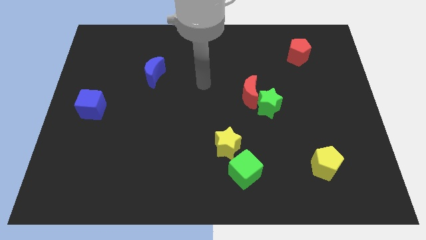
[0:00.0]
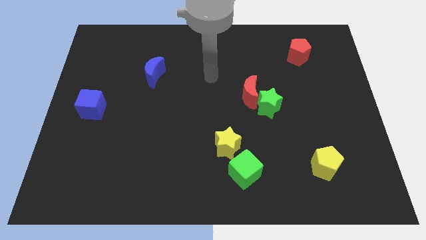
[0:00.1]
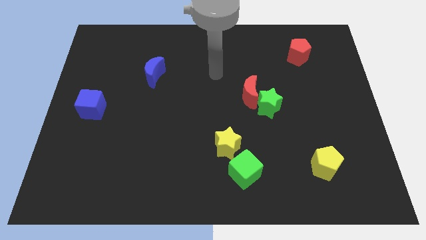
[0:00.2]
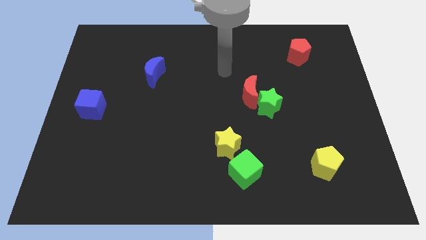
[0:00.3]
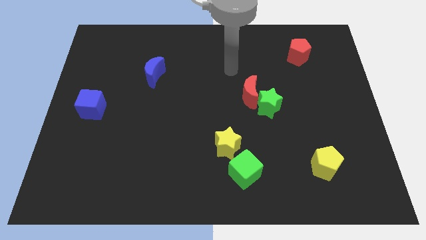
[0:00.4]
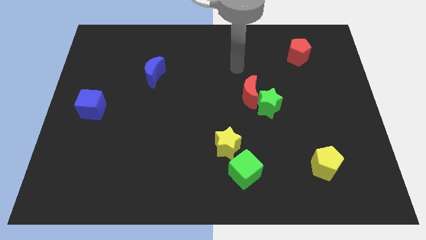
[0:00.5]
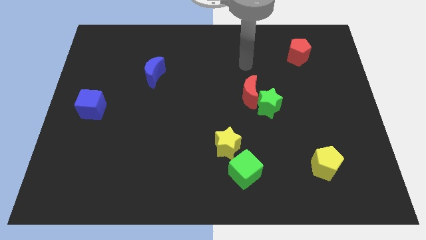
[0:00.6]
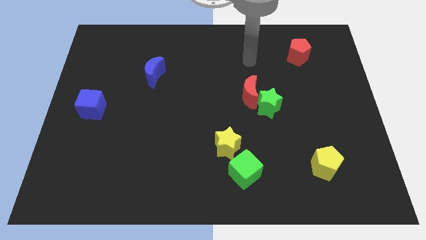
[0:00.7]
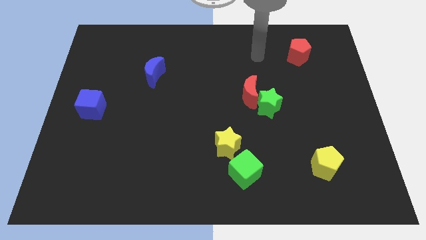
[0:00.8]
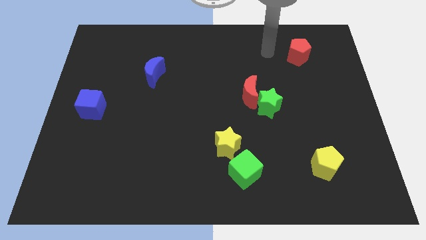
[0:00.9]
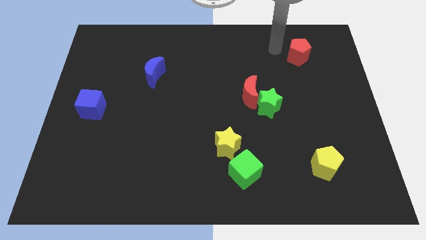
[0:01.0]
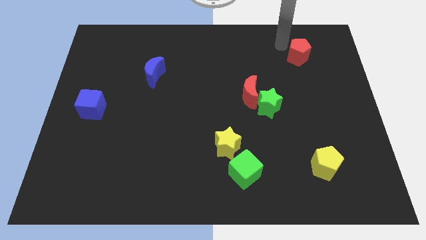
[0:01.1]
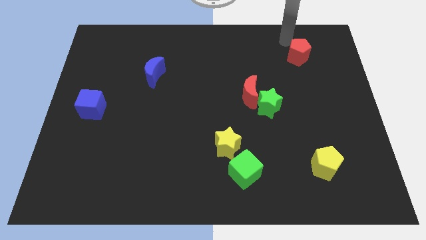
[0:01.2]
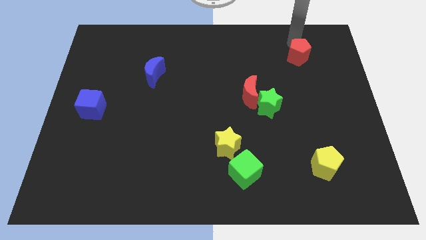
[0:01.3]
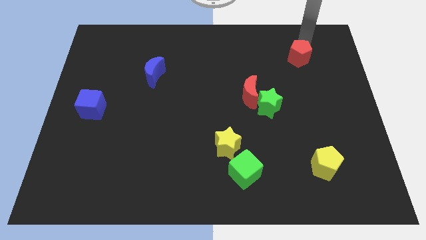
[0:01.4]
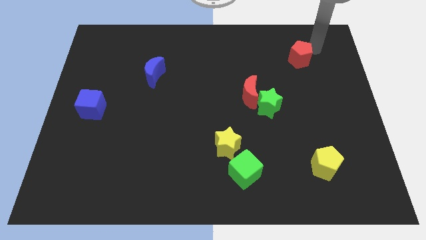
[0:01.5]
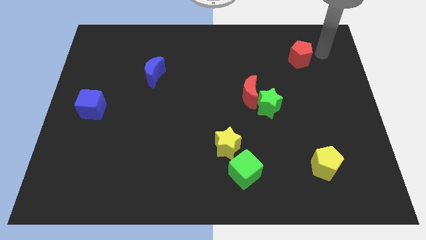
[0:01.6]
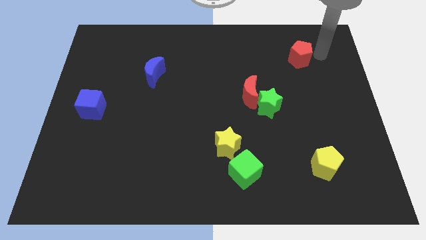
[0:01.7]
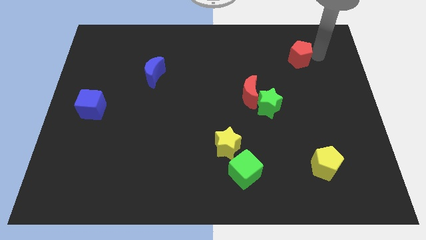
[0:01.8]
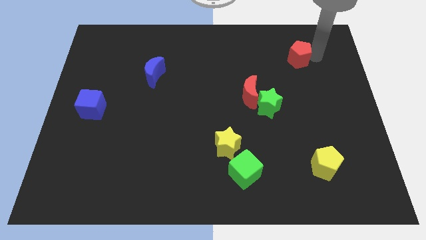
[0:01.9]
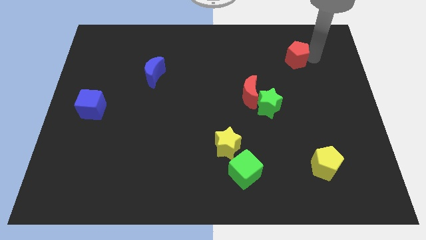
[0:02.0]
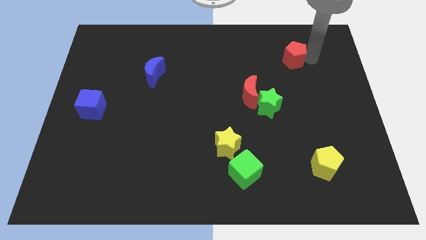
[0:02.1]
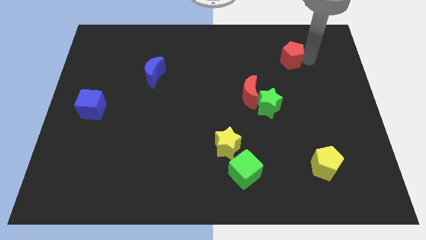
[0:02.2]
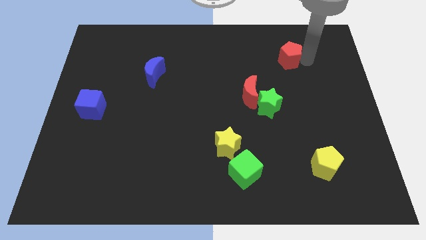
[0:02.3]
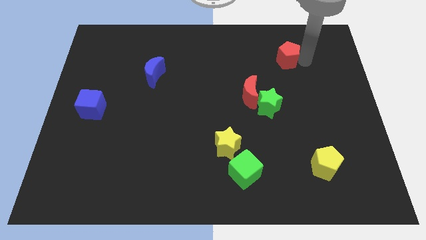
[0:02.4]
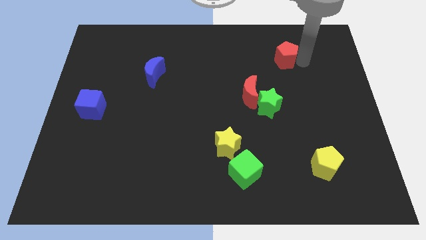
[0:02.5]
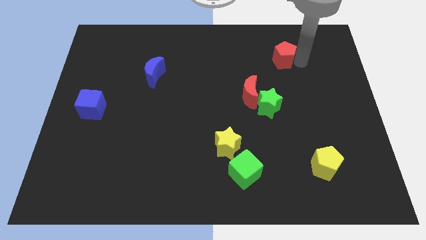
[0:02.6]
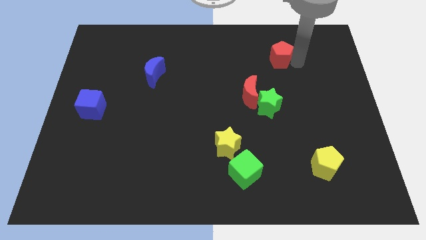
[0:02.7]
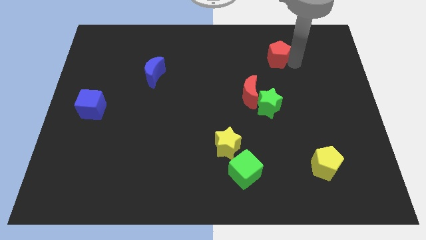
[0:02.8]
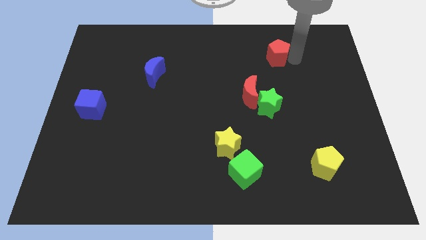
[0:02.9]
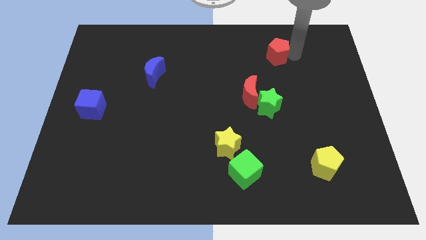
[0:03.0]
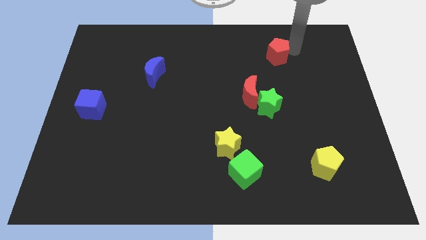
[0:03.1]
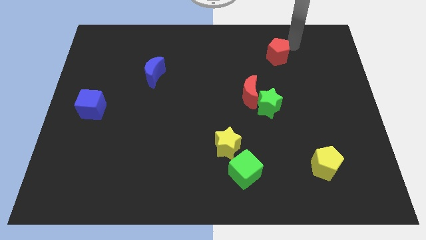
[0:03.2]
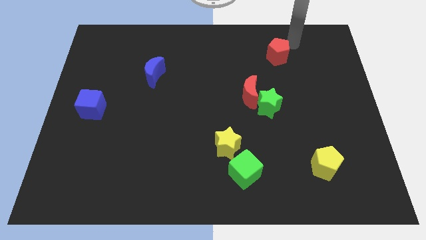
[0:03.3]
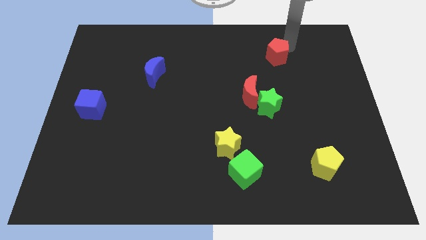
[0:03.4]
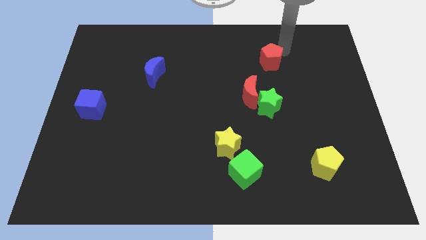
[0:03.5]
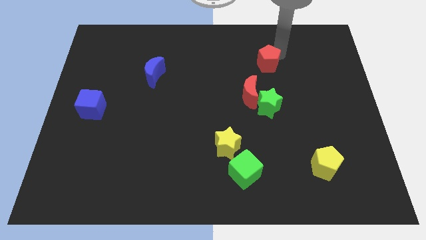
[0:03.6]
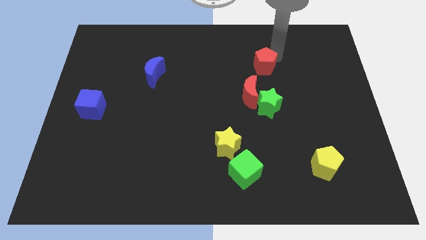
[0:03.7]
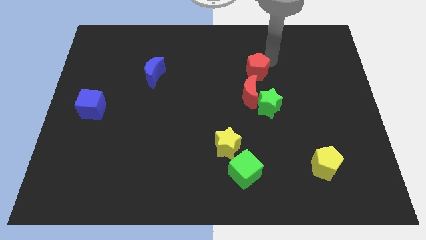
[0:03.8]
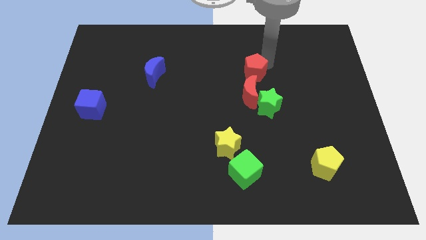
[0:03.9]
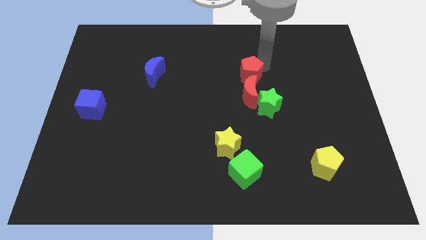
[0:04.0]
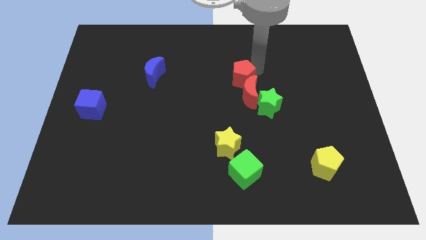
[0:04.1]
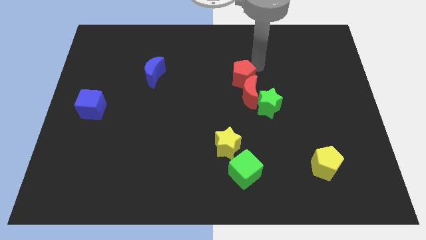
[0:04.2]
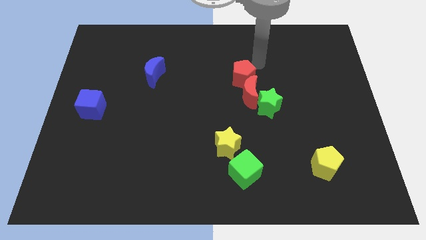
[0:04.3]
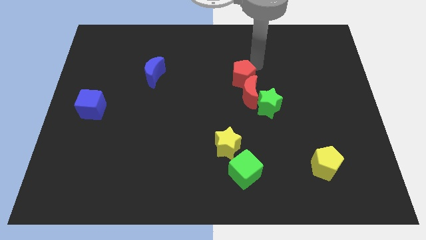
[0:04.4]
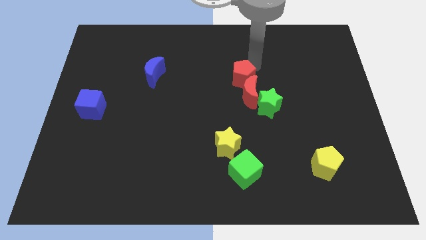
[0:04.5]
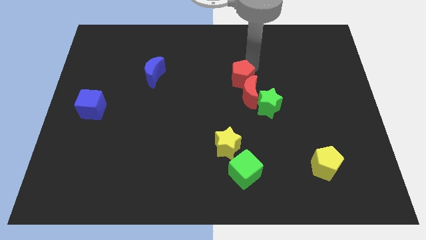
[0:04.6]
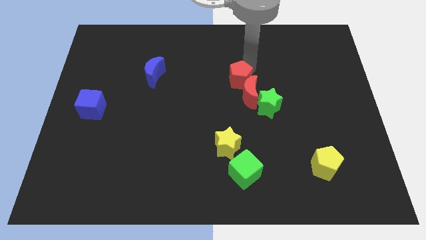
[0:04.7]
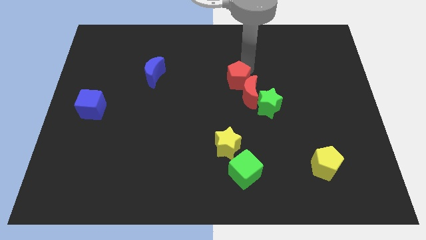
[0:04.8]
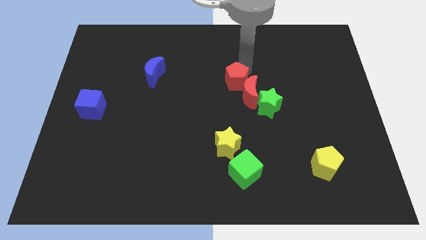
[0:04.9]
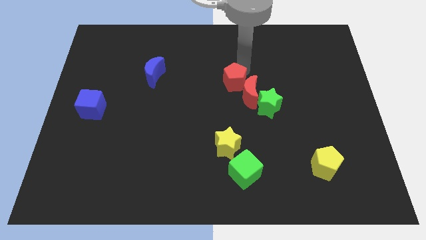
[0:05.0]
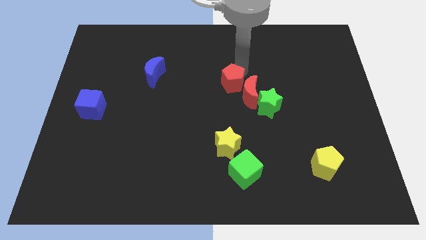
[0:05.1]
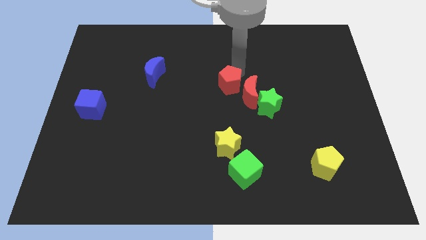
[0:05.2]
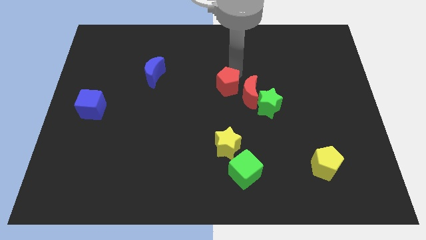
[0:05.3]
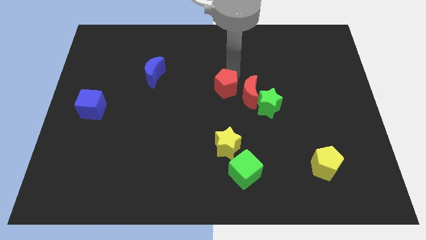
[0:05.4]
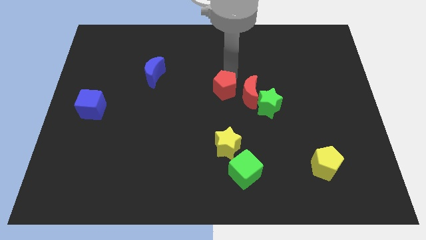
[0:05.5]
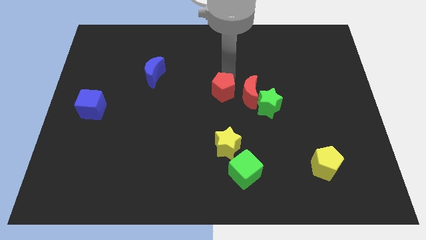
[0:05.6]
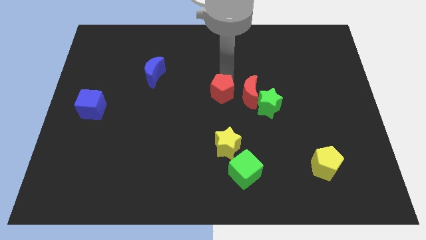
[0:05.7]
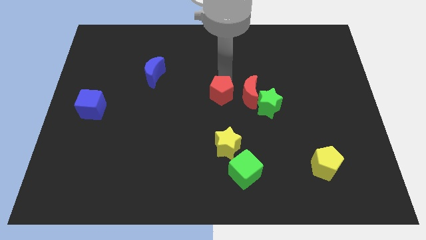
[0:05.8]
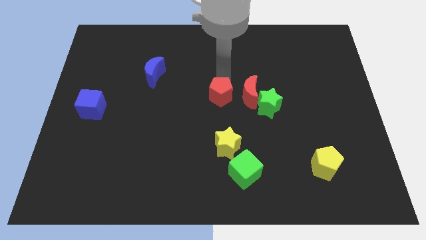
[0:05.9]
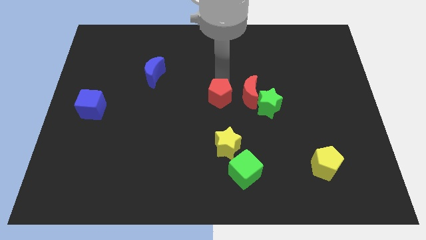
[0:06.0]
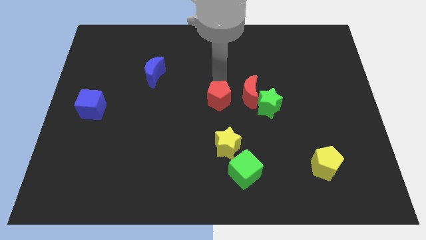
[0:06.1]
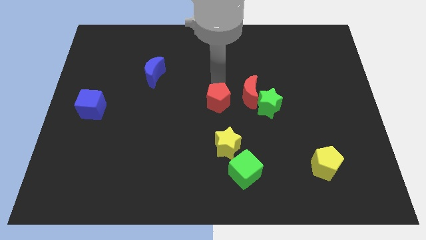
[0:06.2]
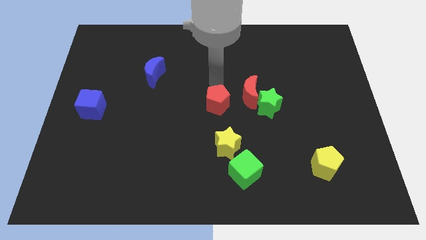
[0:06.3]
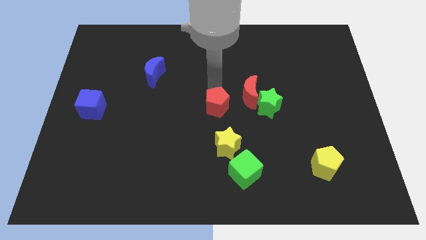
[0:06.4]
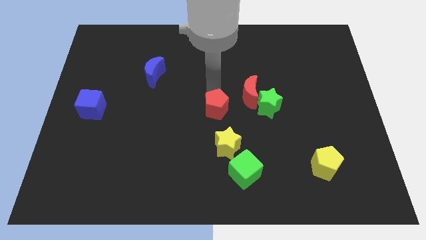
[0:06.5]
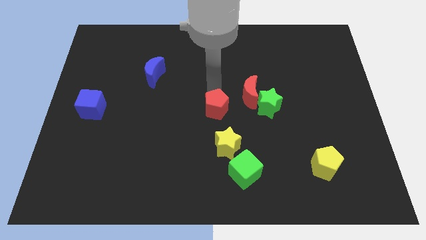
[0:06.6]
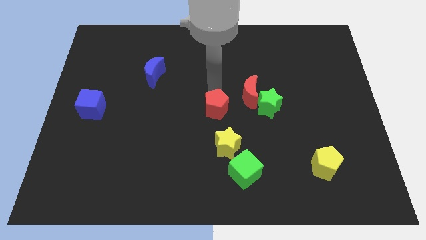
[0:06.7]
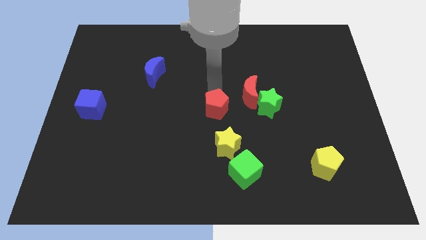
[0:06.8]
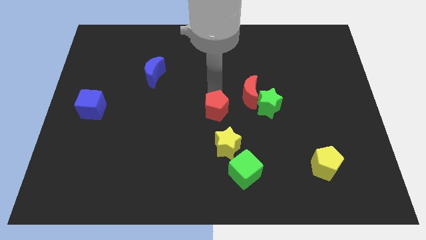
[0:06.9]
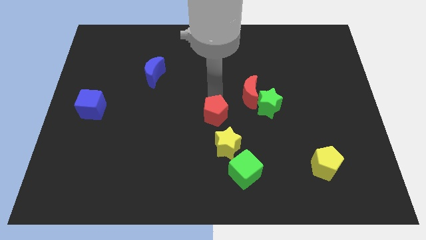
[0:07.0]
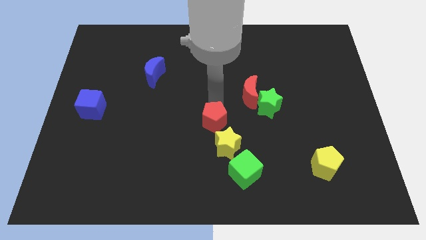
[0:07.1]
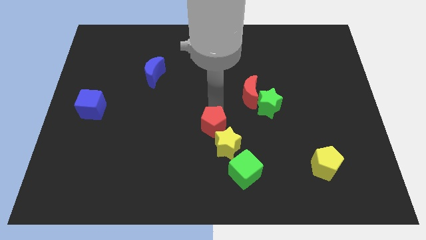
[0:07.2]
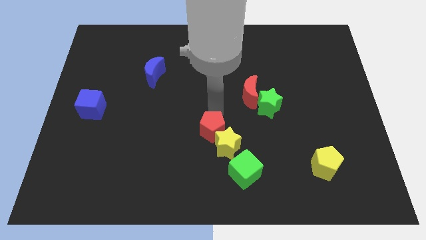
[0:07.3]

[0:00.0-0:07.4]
push the red pentagon just left of the yellow star

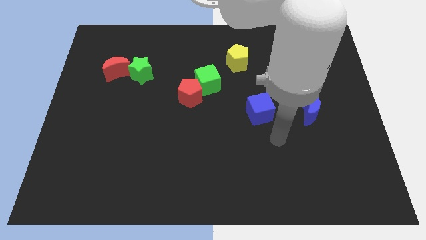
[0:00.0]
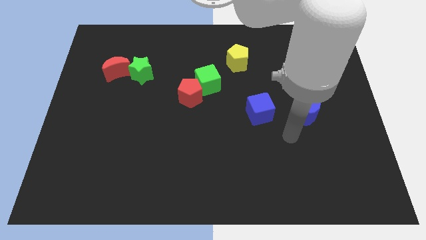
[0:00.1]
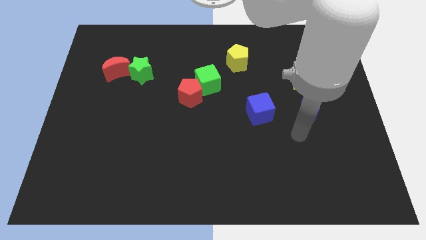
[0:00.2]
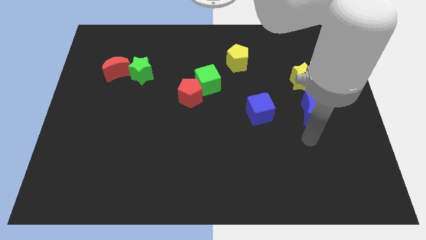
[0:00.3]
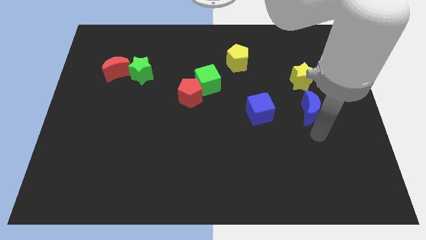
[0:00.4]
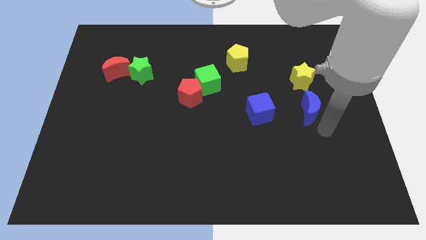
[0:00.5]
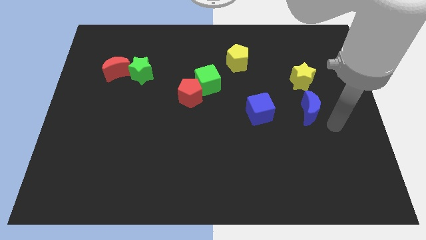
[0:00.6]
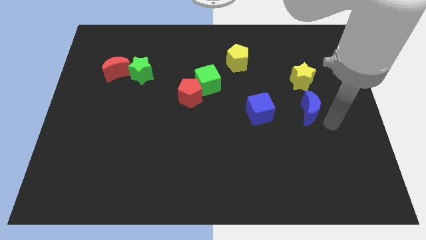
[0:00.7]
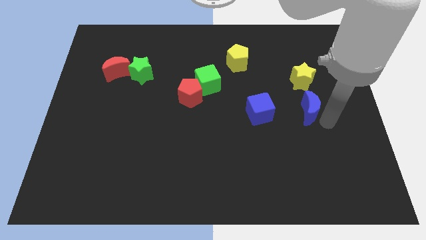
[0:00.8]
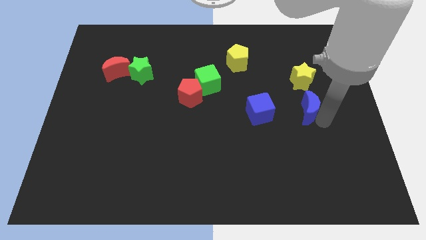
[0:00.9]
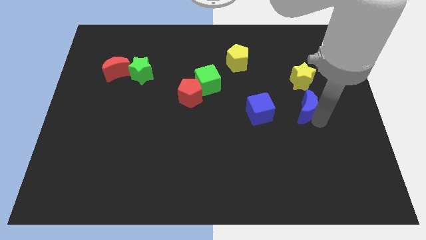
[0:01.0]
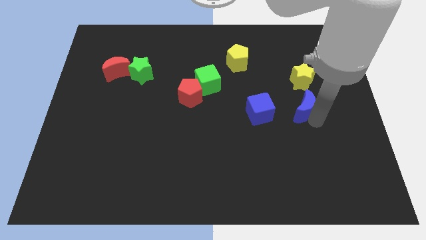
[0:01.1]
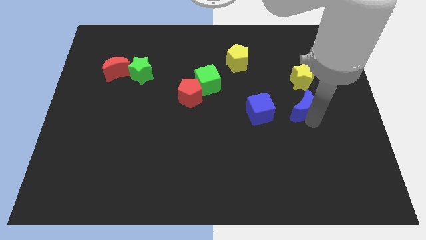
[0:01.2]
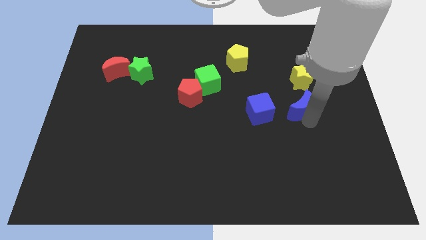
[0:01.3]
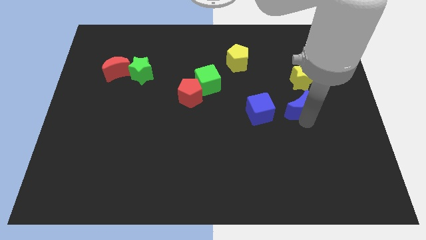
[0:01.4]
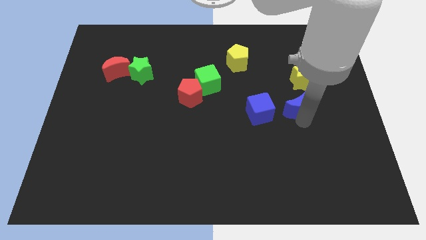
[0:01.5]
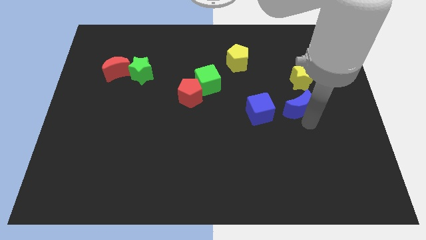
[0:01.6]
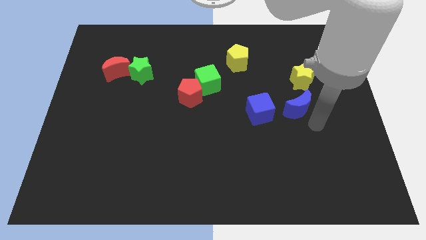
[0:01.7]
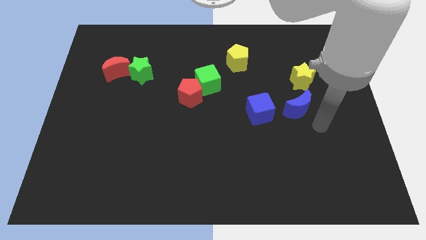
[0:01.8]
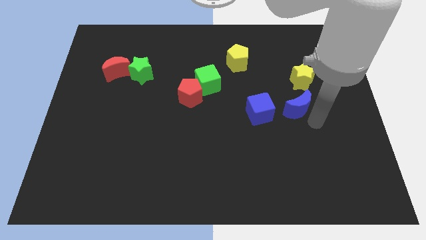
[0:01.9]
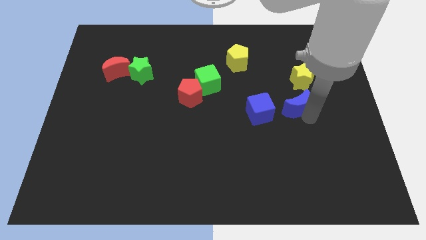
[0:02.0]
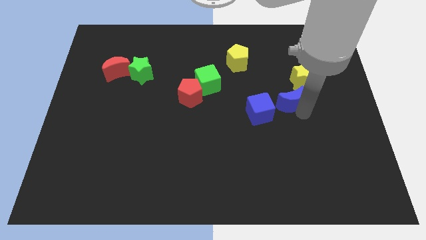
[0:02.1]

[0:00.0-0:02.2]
move the blue moon diagonally up and to the right of the blue cube
